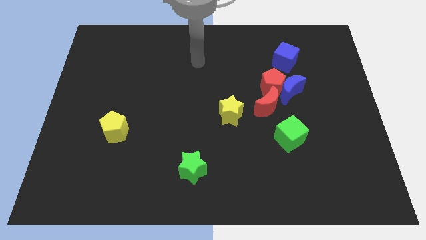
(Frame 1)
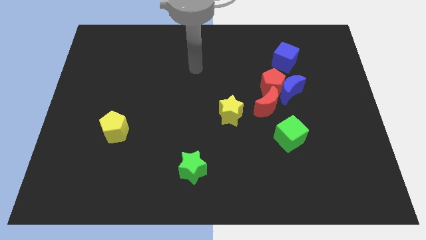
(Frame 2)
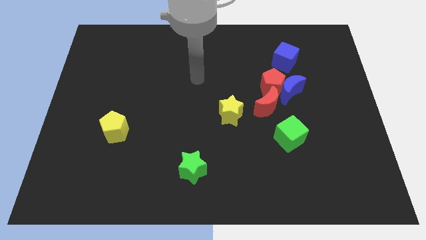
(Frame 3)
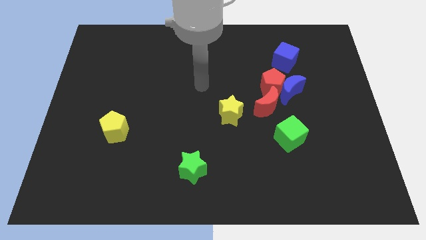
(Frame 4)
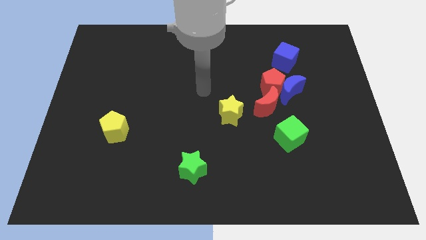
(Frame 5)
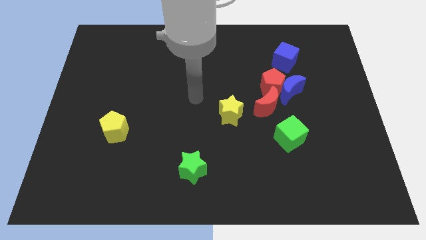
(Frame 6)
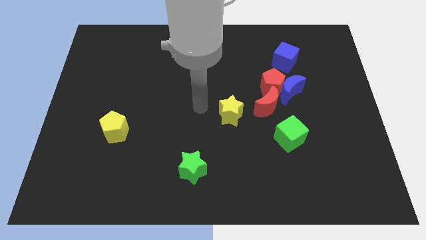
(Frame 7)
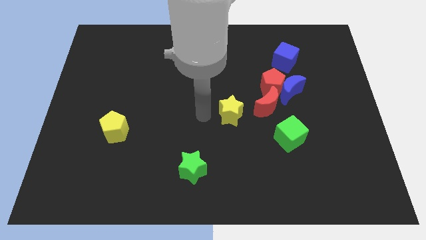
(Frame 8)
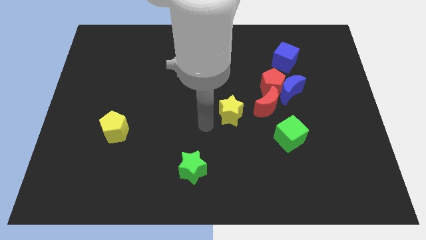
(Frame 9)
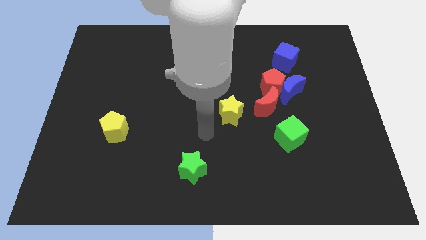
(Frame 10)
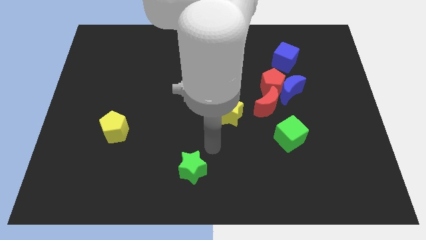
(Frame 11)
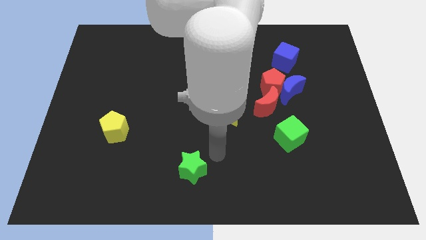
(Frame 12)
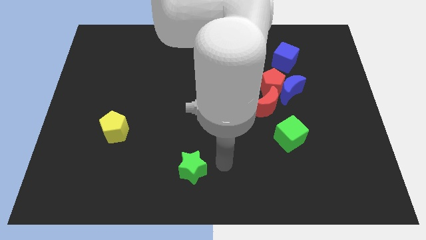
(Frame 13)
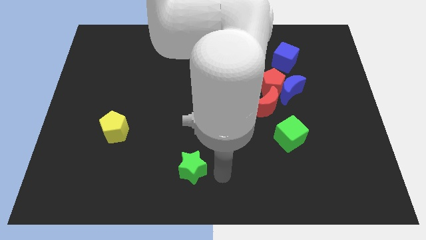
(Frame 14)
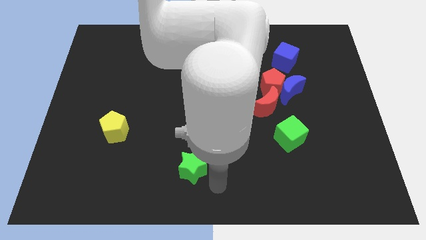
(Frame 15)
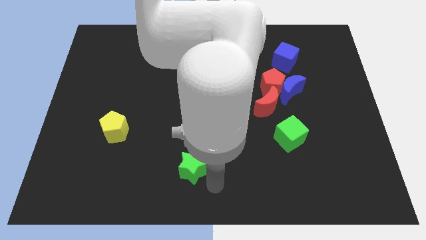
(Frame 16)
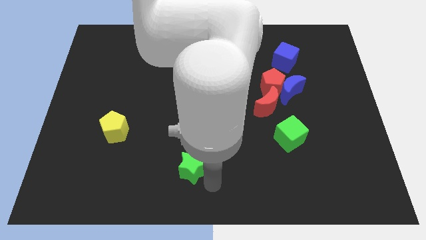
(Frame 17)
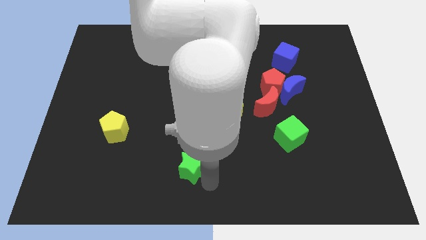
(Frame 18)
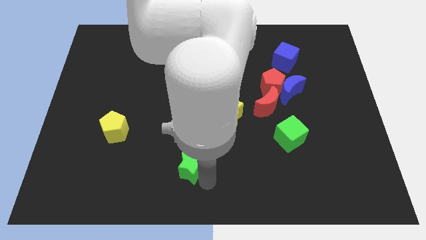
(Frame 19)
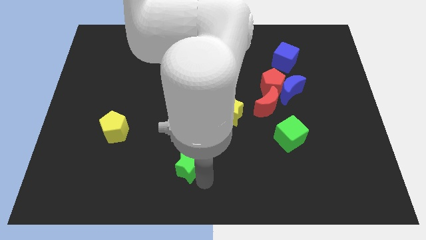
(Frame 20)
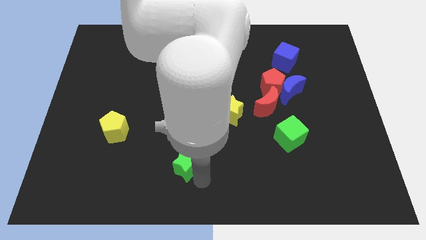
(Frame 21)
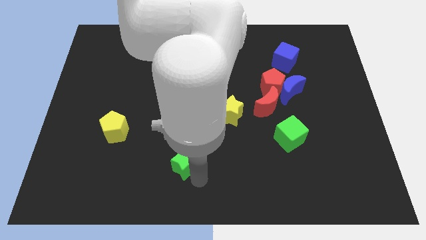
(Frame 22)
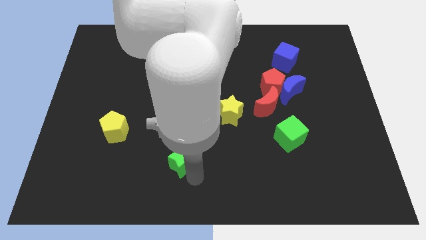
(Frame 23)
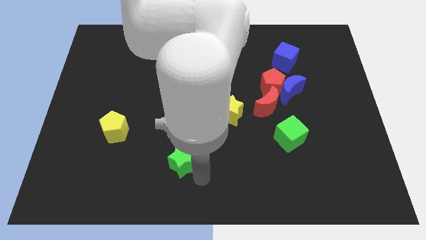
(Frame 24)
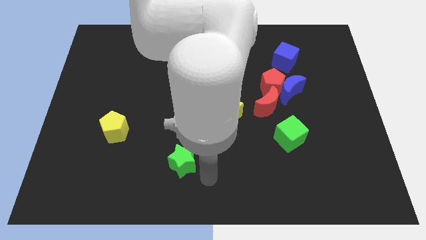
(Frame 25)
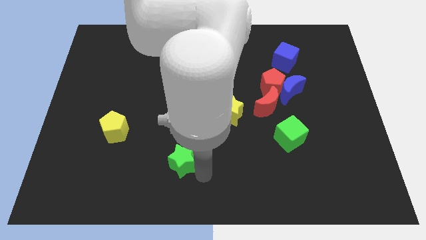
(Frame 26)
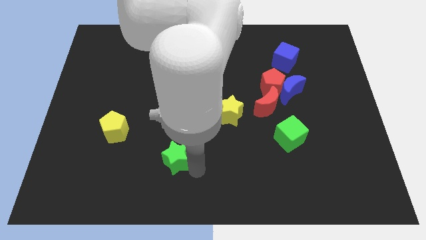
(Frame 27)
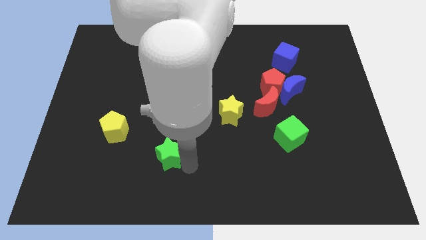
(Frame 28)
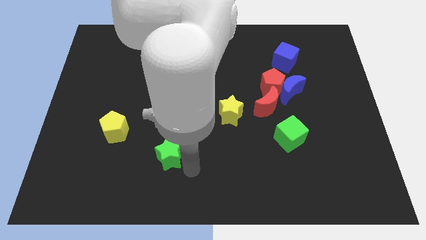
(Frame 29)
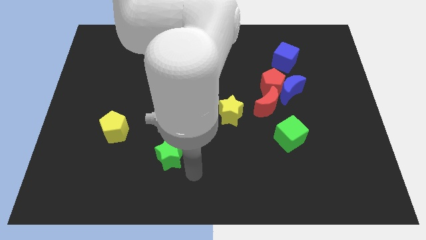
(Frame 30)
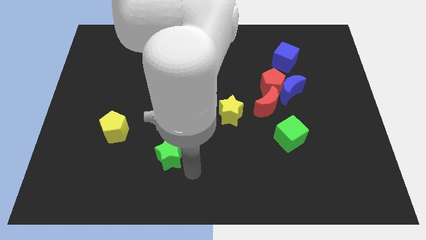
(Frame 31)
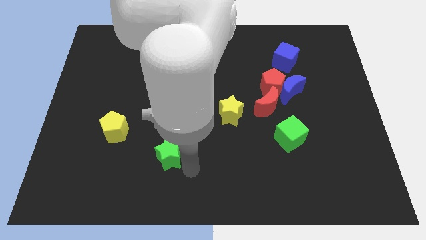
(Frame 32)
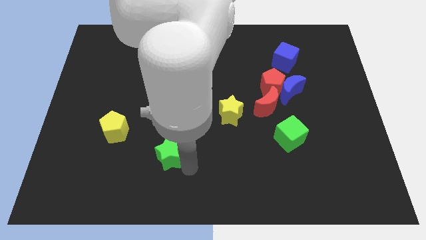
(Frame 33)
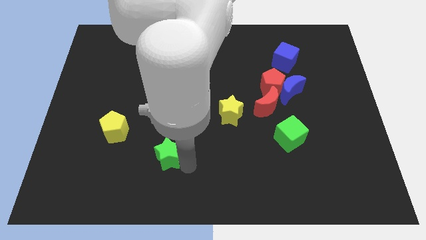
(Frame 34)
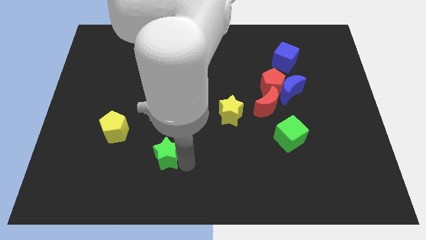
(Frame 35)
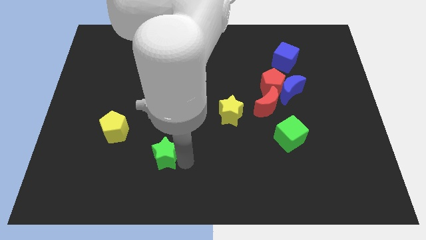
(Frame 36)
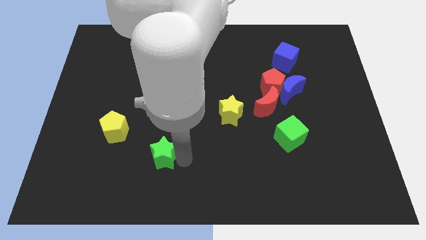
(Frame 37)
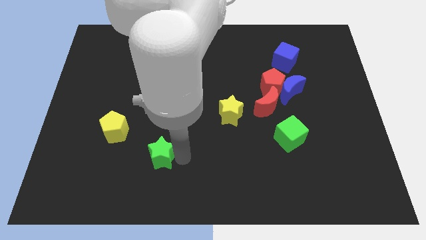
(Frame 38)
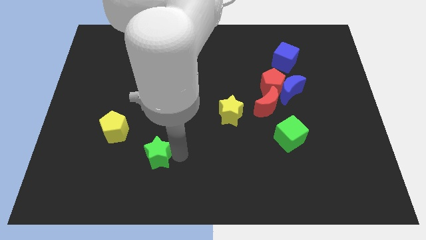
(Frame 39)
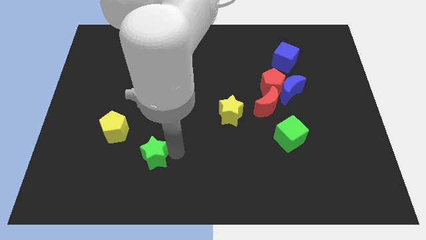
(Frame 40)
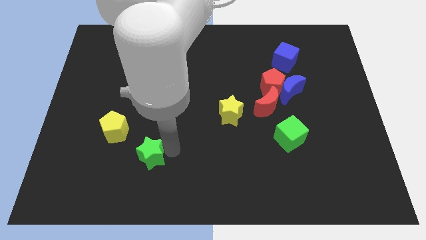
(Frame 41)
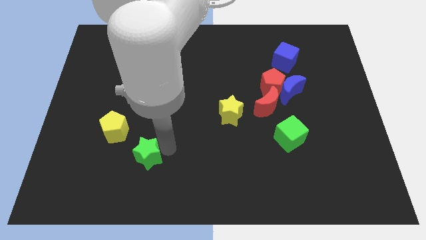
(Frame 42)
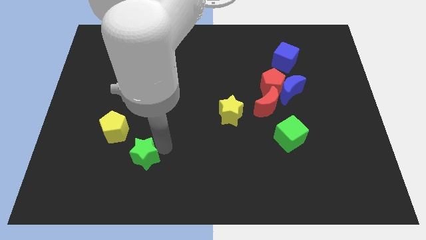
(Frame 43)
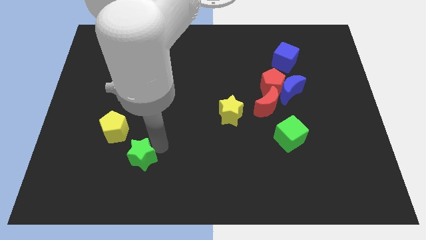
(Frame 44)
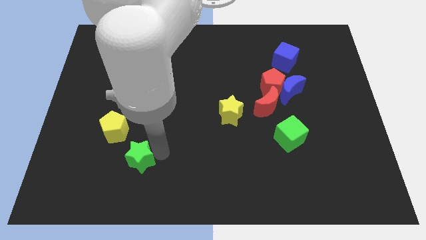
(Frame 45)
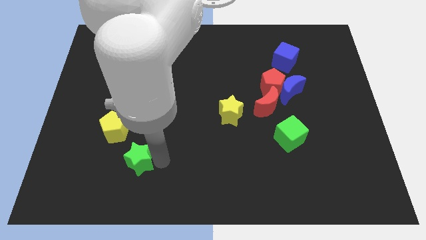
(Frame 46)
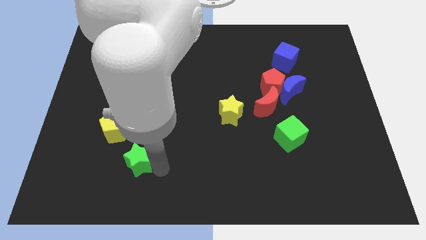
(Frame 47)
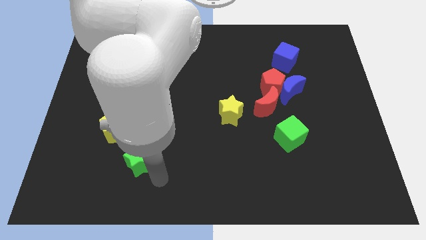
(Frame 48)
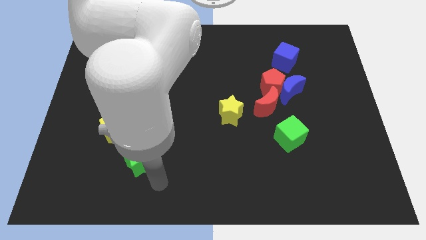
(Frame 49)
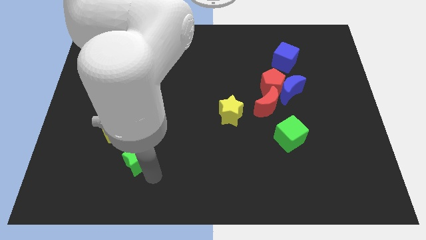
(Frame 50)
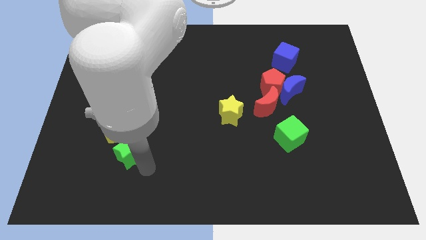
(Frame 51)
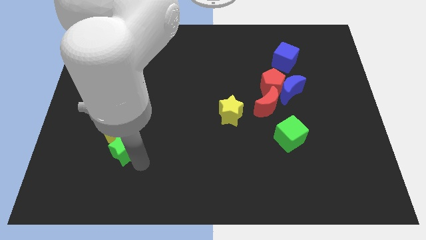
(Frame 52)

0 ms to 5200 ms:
slide the green star close to the yellow pentagon

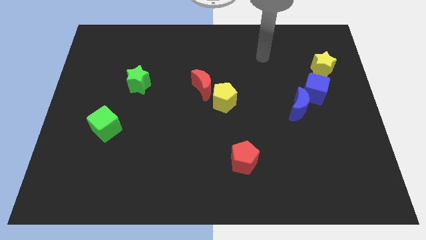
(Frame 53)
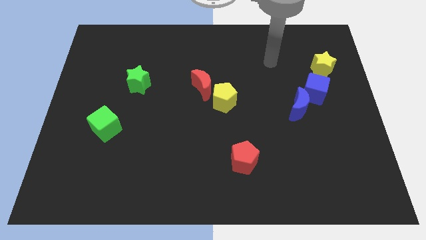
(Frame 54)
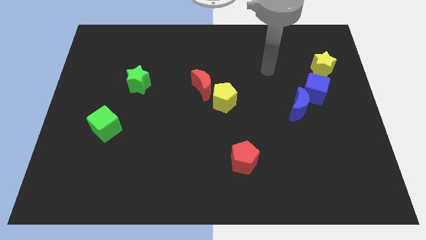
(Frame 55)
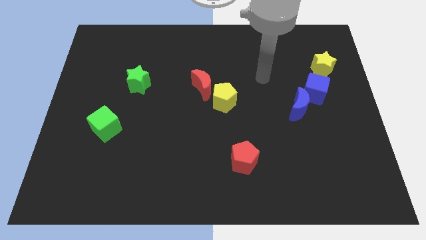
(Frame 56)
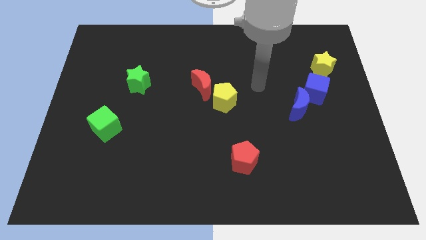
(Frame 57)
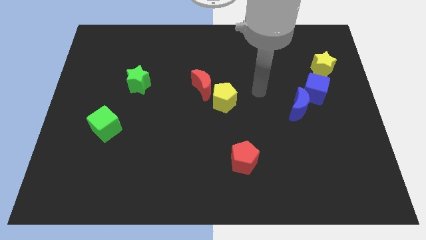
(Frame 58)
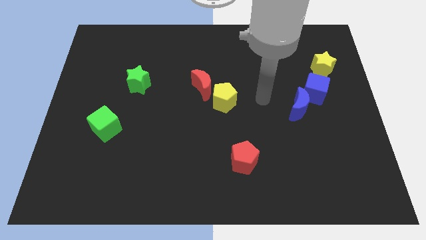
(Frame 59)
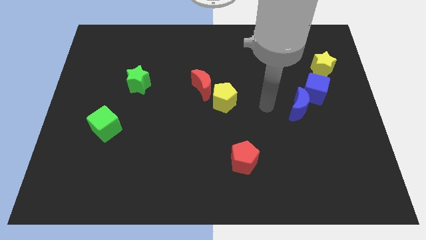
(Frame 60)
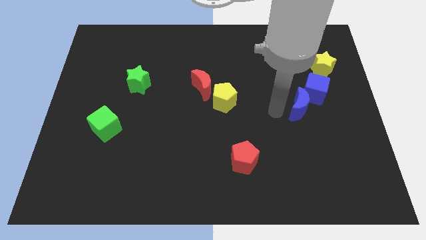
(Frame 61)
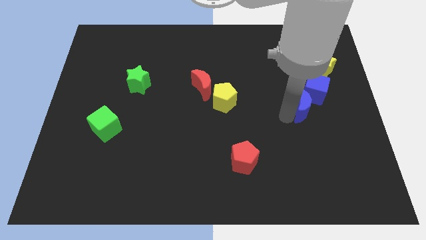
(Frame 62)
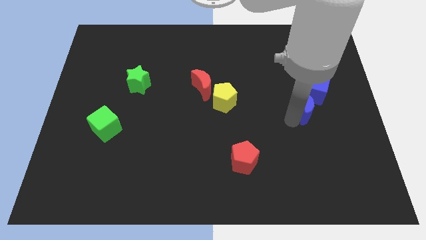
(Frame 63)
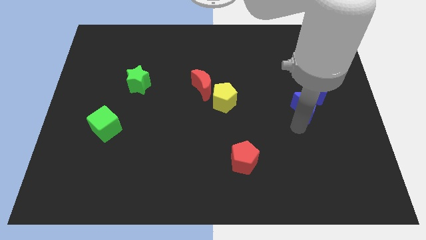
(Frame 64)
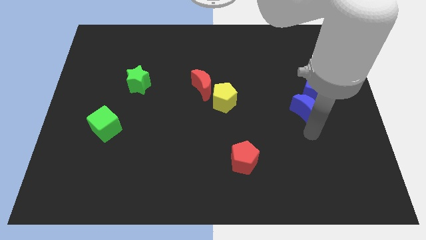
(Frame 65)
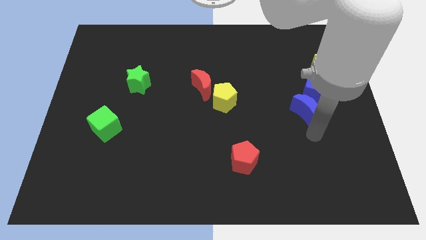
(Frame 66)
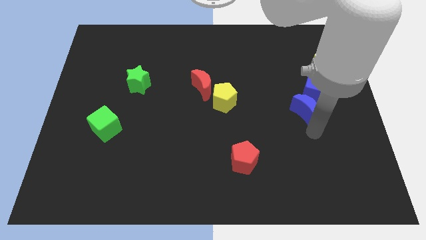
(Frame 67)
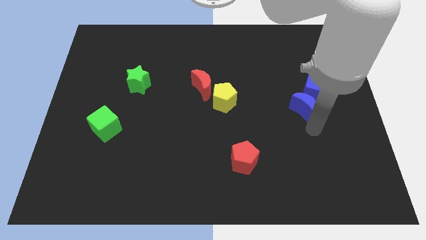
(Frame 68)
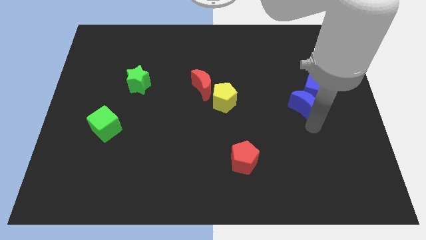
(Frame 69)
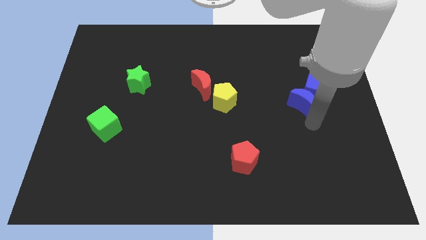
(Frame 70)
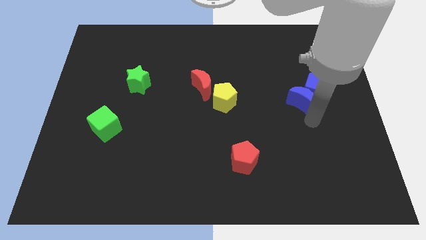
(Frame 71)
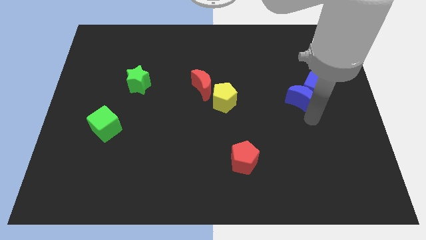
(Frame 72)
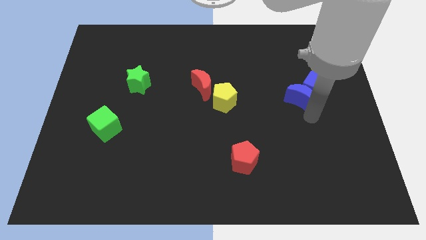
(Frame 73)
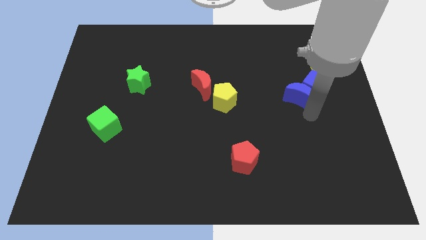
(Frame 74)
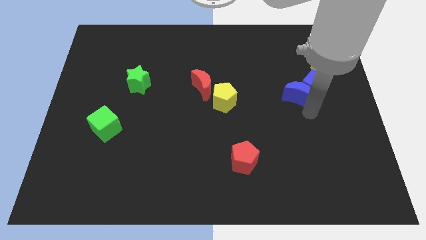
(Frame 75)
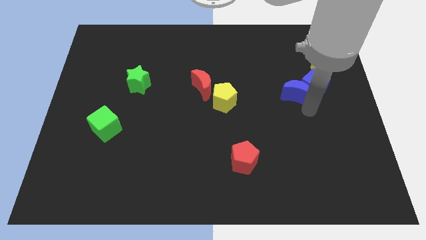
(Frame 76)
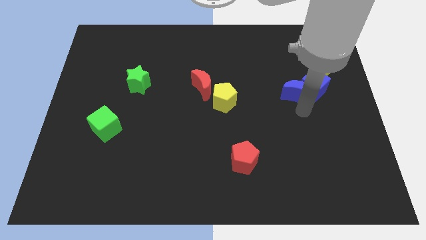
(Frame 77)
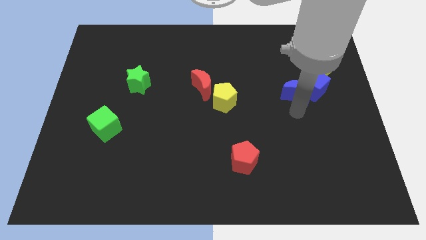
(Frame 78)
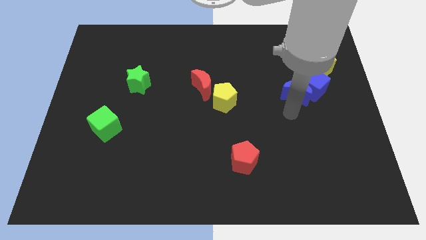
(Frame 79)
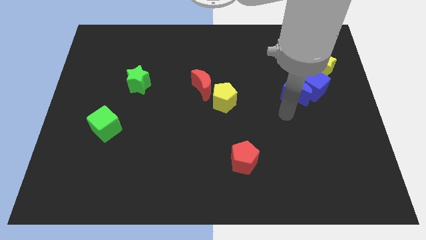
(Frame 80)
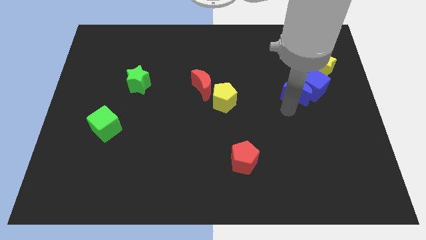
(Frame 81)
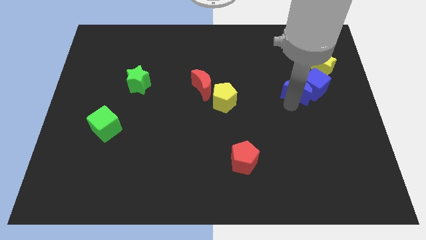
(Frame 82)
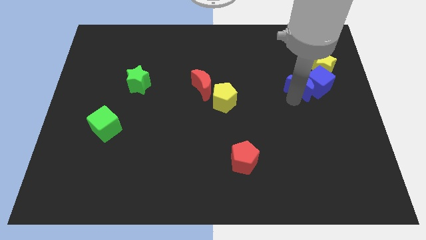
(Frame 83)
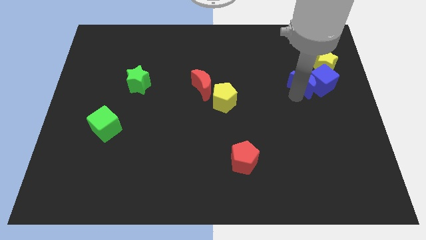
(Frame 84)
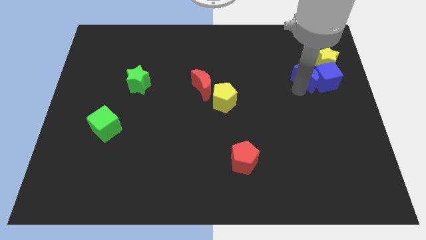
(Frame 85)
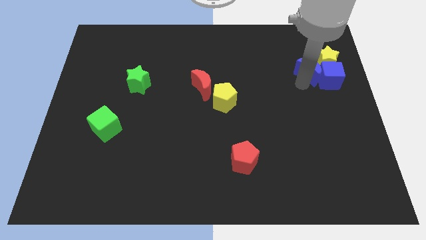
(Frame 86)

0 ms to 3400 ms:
push the blue moon to the yellow star
